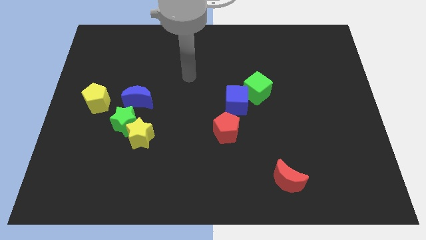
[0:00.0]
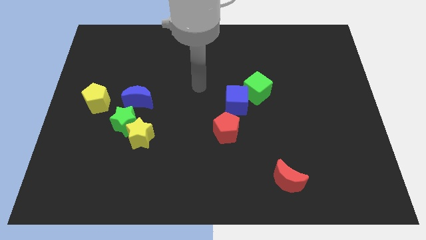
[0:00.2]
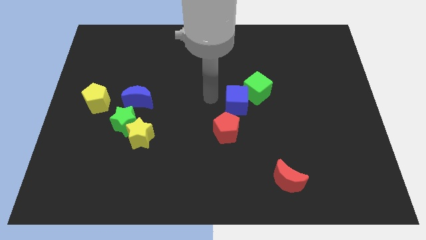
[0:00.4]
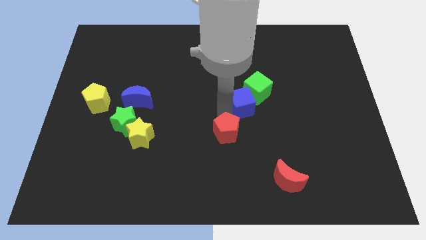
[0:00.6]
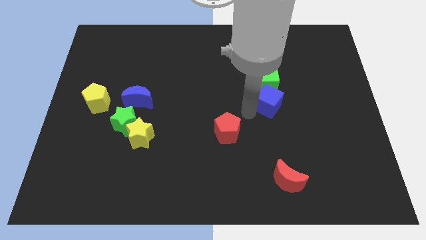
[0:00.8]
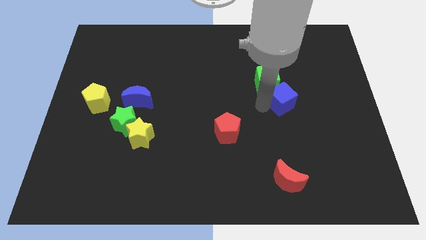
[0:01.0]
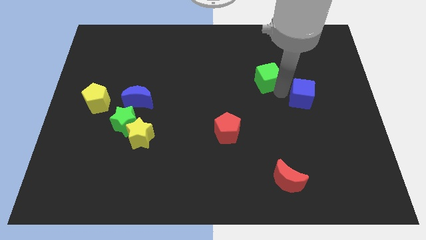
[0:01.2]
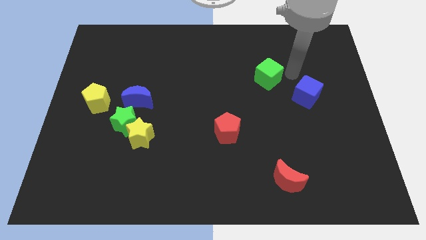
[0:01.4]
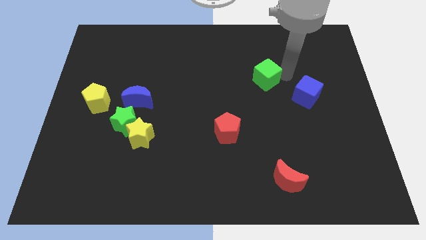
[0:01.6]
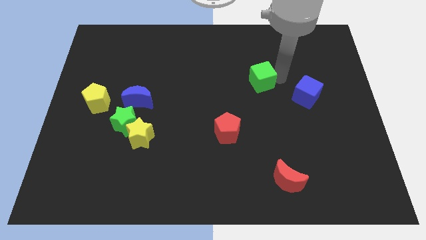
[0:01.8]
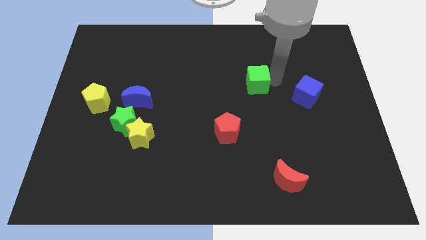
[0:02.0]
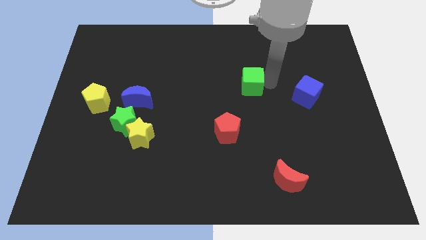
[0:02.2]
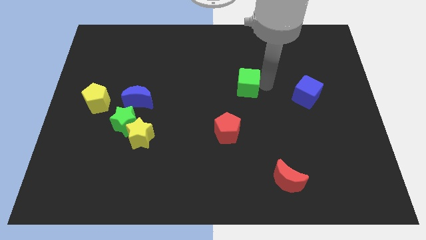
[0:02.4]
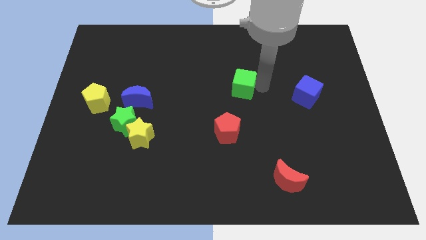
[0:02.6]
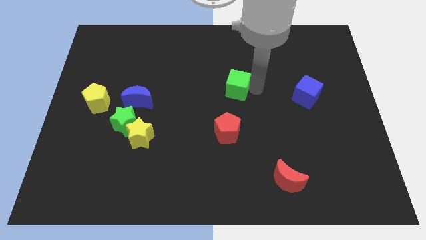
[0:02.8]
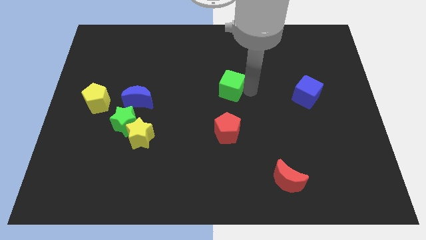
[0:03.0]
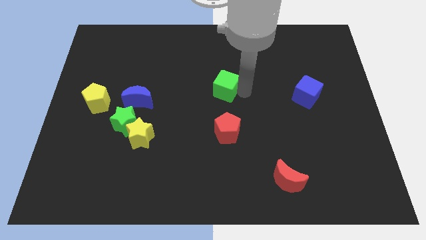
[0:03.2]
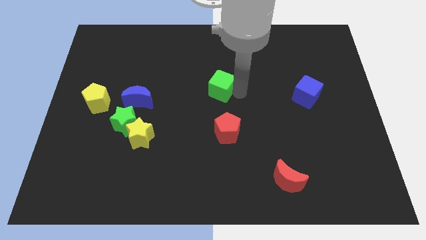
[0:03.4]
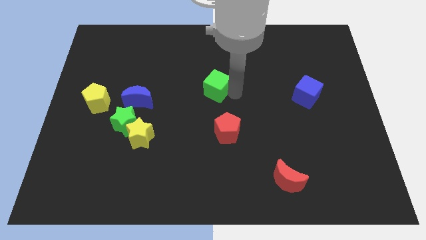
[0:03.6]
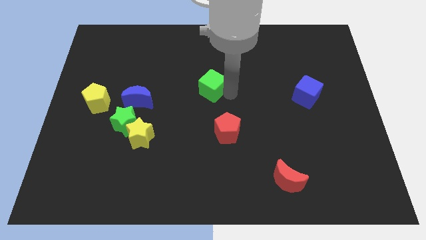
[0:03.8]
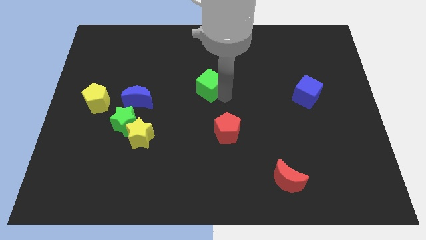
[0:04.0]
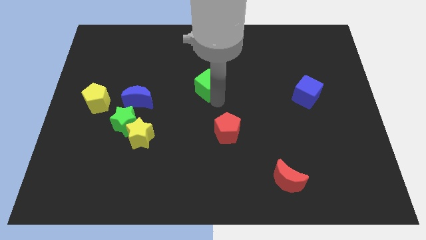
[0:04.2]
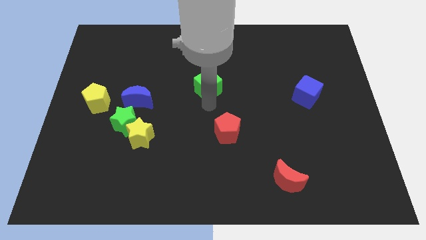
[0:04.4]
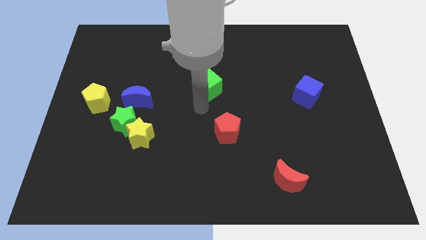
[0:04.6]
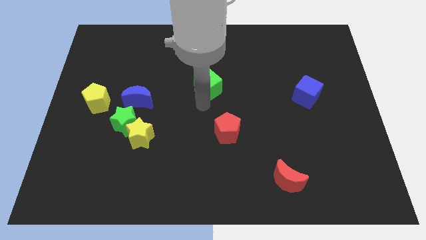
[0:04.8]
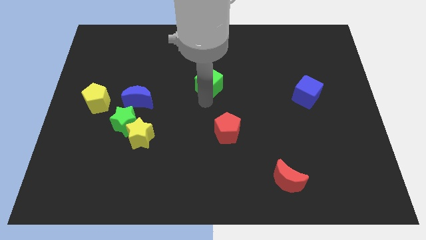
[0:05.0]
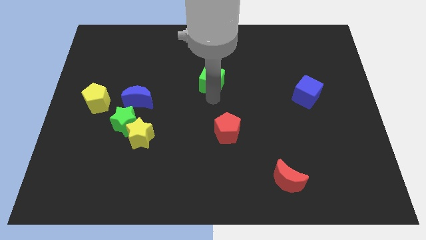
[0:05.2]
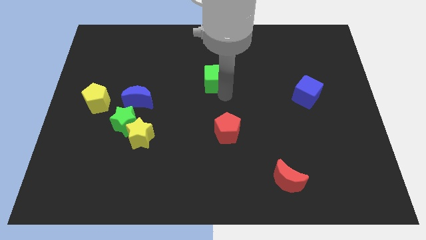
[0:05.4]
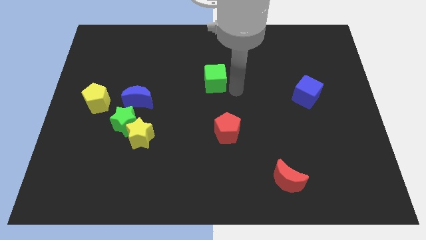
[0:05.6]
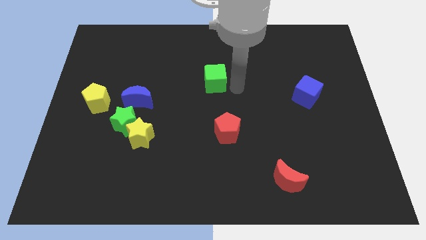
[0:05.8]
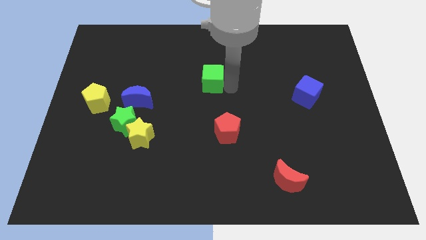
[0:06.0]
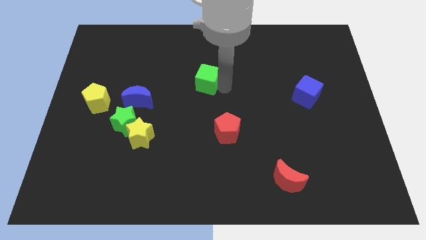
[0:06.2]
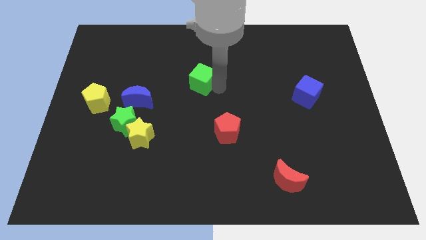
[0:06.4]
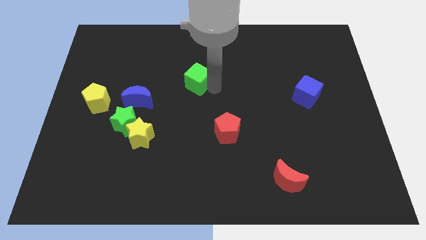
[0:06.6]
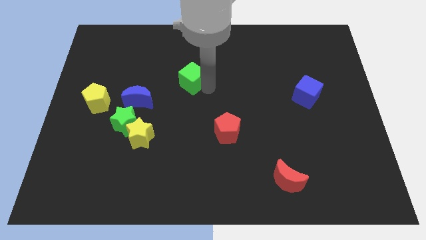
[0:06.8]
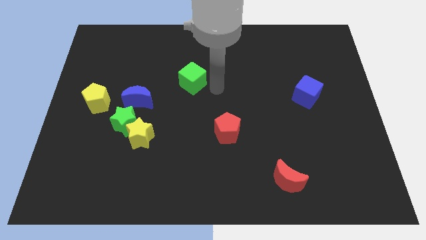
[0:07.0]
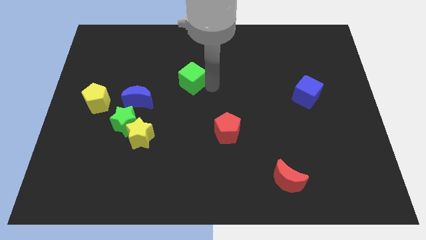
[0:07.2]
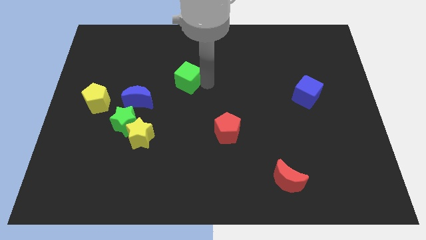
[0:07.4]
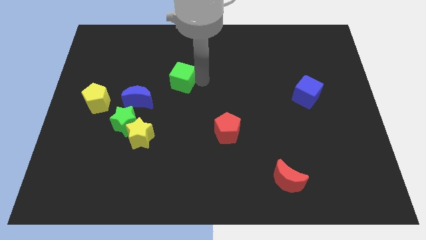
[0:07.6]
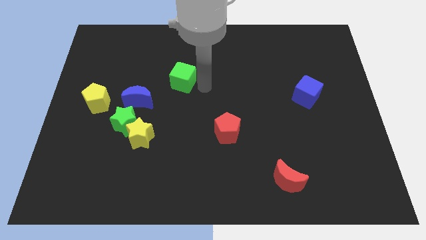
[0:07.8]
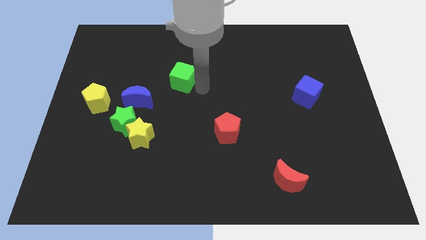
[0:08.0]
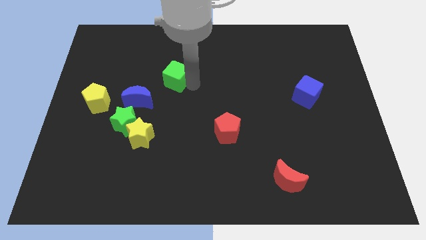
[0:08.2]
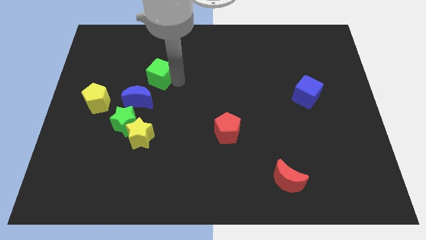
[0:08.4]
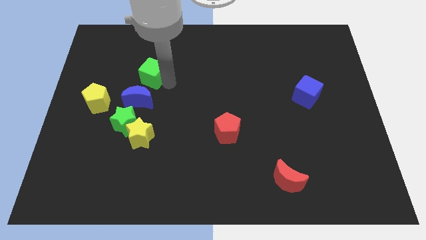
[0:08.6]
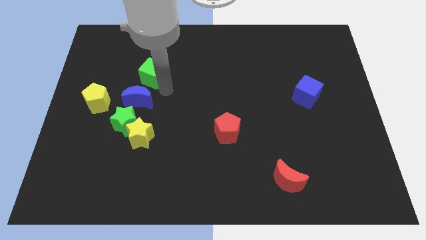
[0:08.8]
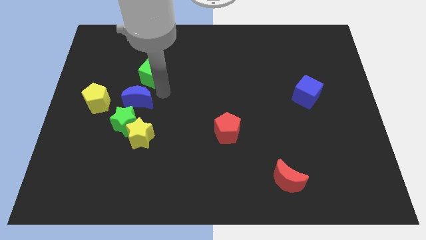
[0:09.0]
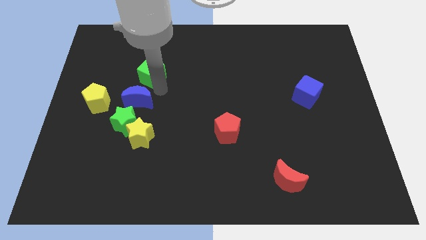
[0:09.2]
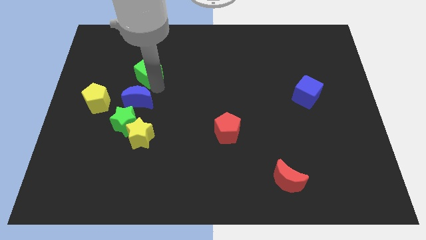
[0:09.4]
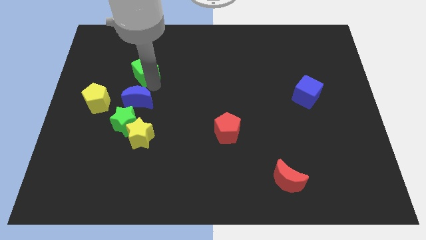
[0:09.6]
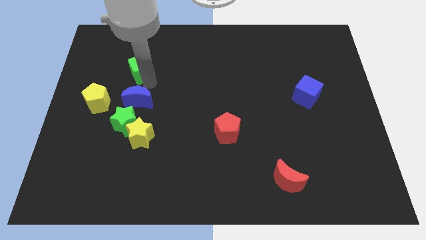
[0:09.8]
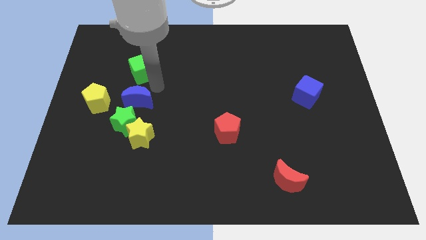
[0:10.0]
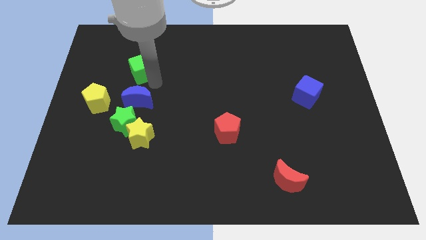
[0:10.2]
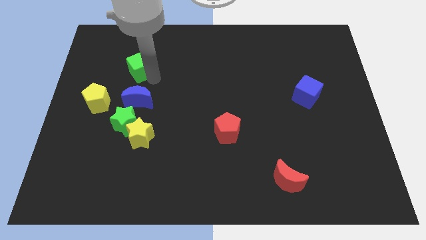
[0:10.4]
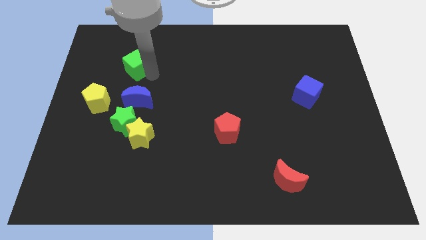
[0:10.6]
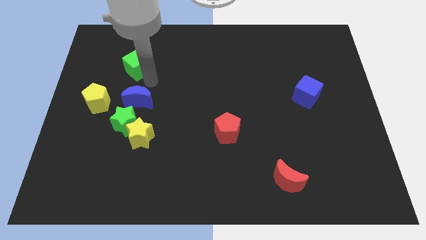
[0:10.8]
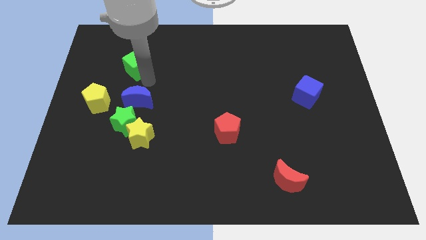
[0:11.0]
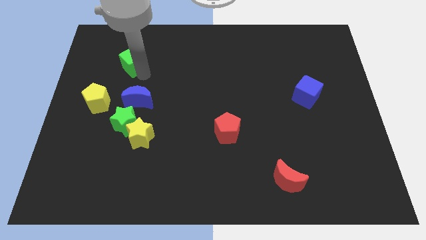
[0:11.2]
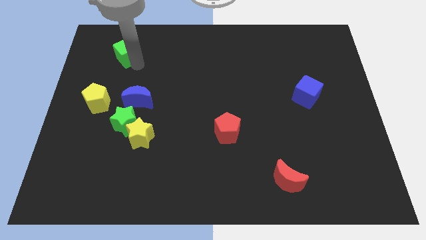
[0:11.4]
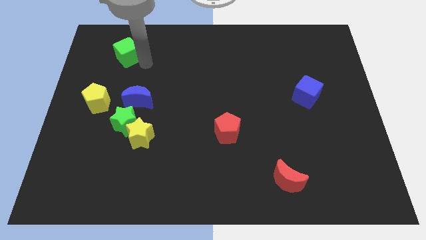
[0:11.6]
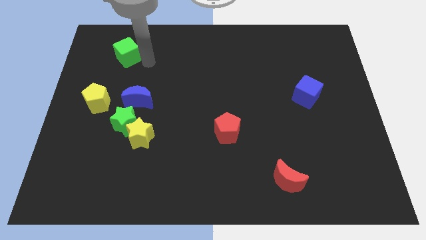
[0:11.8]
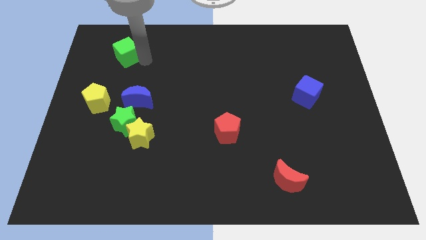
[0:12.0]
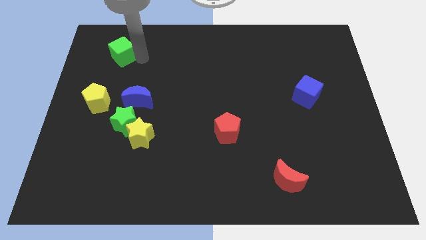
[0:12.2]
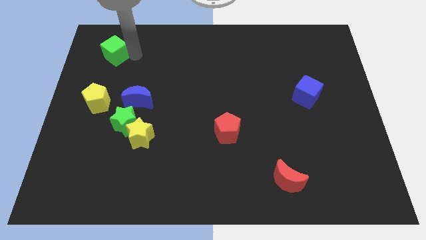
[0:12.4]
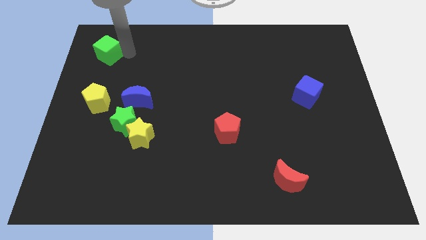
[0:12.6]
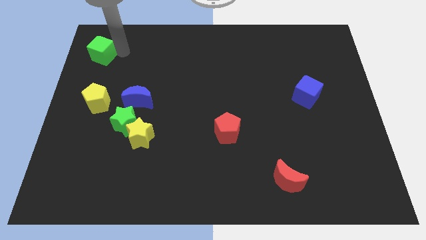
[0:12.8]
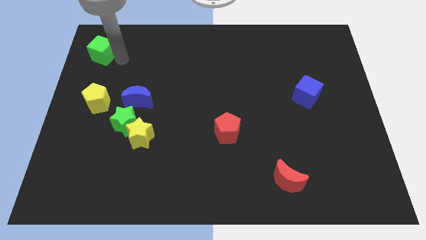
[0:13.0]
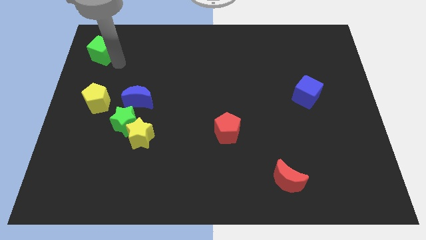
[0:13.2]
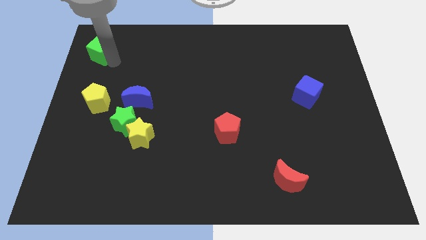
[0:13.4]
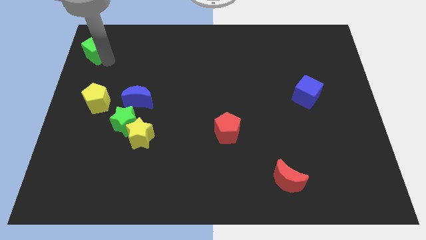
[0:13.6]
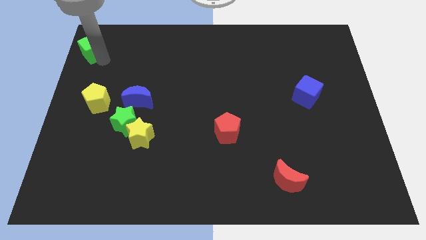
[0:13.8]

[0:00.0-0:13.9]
move the green cube to the top left corner
